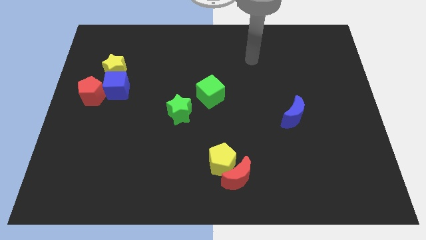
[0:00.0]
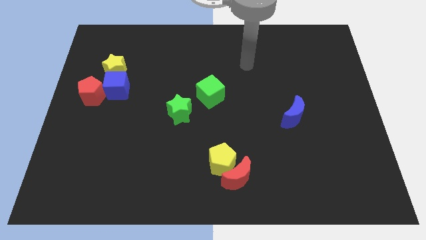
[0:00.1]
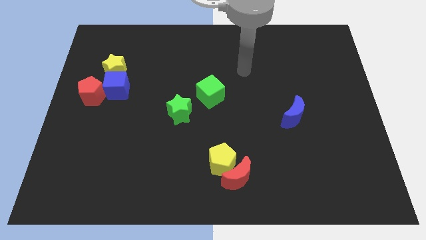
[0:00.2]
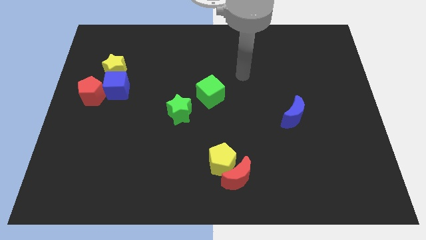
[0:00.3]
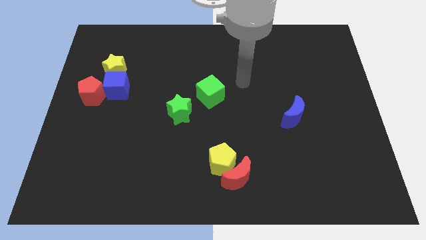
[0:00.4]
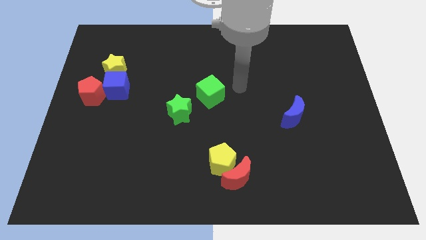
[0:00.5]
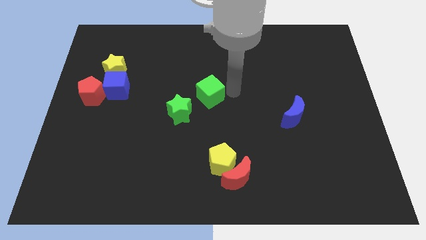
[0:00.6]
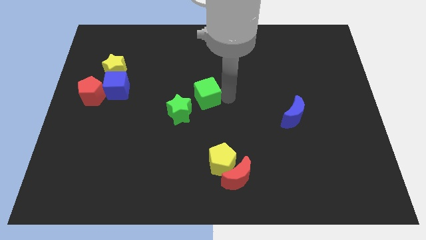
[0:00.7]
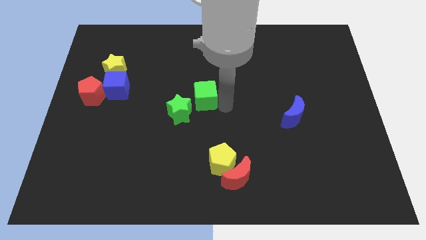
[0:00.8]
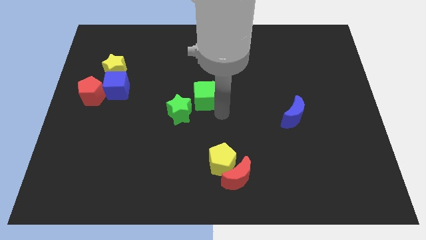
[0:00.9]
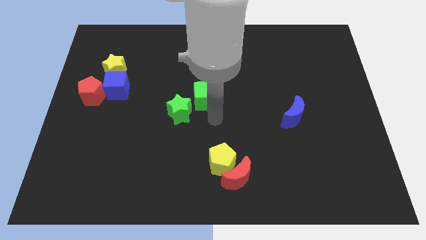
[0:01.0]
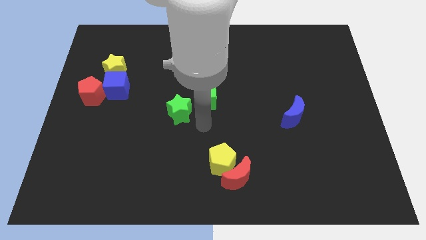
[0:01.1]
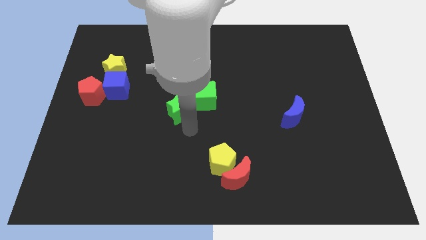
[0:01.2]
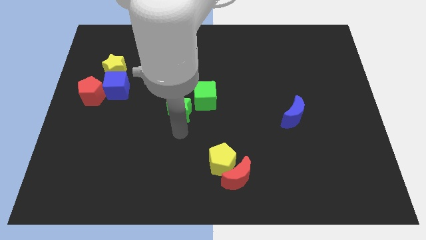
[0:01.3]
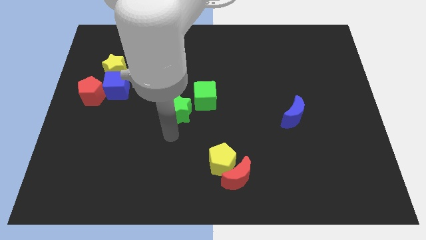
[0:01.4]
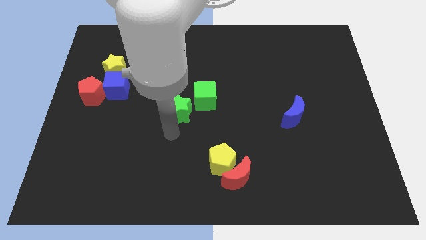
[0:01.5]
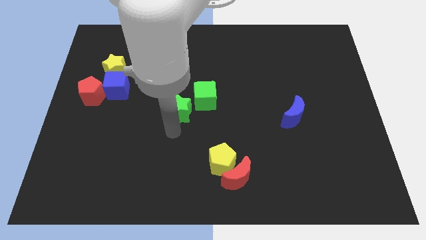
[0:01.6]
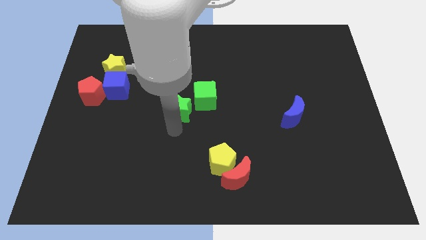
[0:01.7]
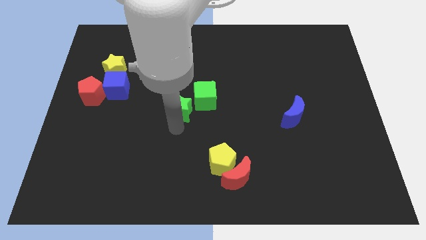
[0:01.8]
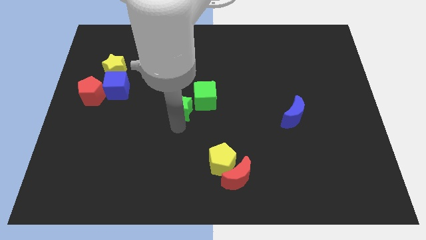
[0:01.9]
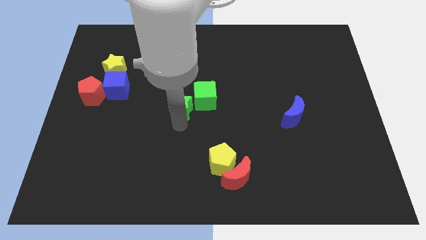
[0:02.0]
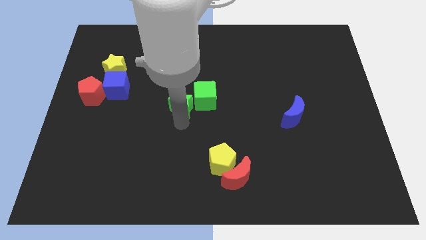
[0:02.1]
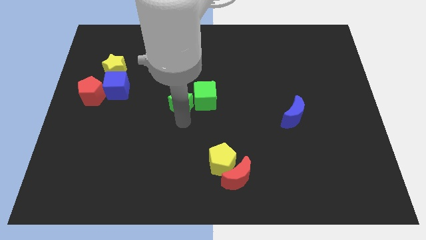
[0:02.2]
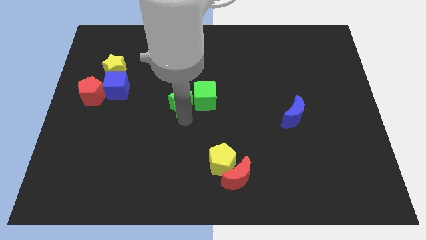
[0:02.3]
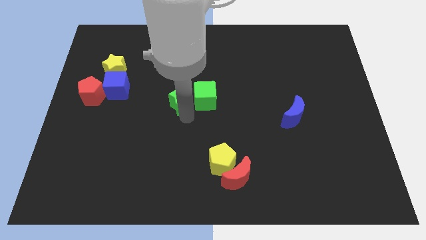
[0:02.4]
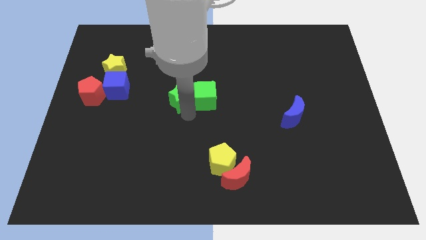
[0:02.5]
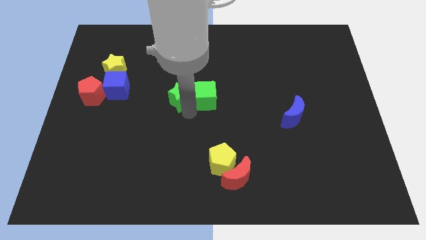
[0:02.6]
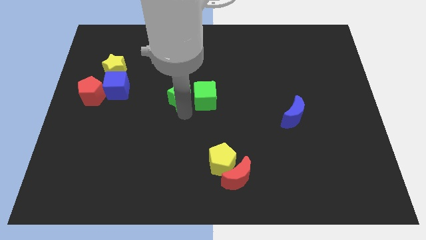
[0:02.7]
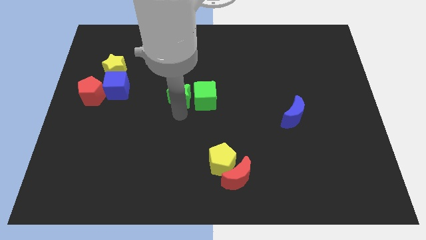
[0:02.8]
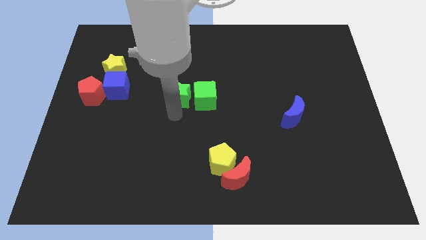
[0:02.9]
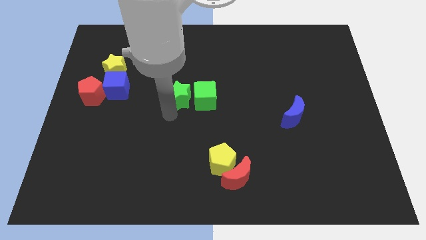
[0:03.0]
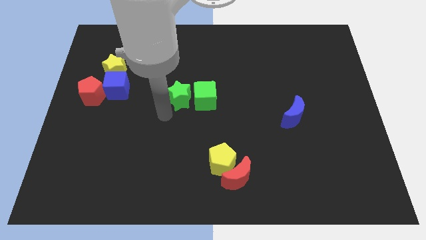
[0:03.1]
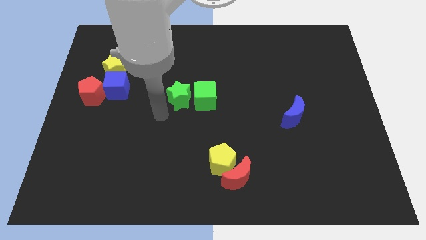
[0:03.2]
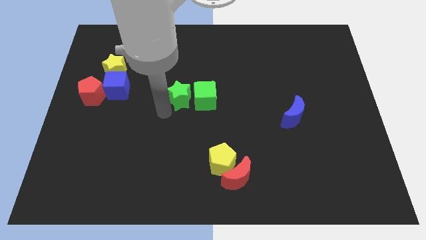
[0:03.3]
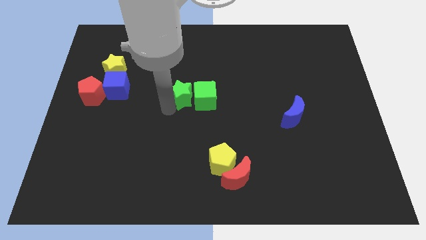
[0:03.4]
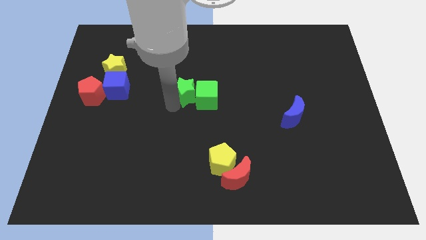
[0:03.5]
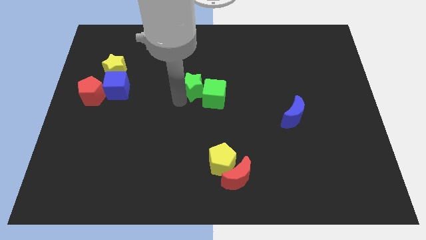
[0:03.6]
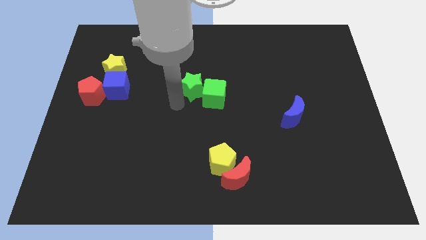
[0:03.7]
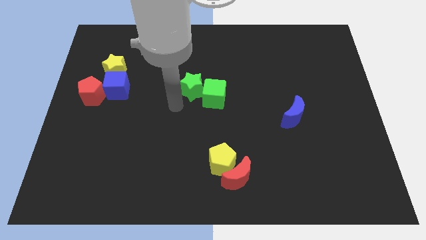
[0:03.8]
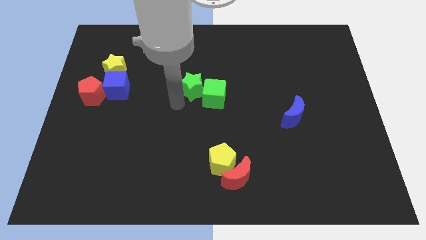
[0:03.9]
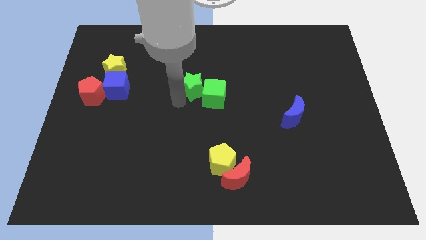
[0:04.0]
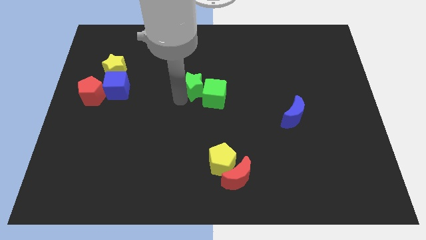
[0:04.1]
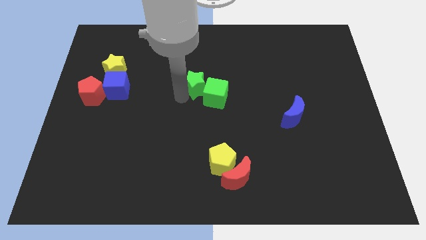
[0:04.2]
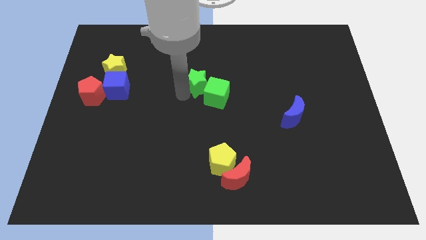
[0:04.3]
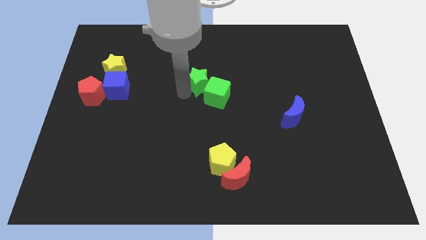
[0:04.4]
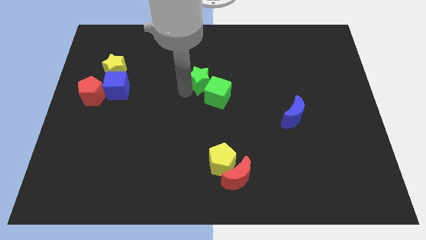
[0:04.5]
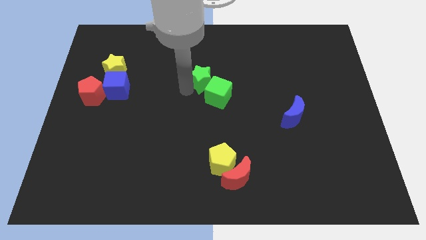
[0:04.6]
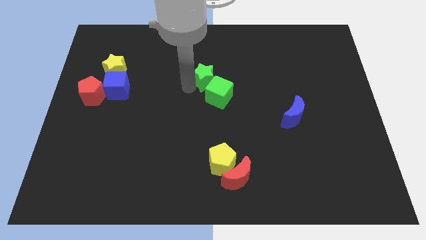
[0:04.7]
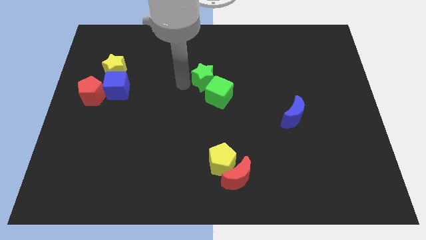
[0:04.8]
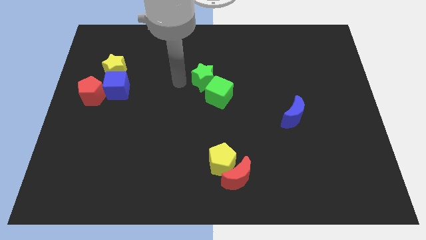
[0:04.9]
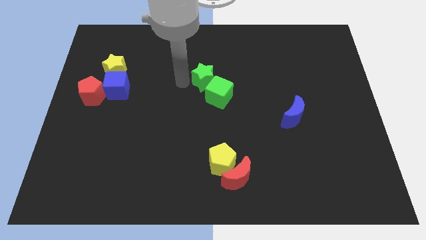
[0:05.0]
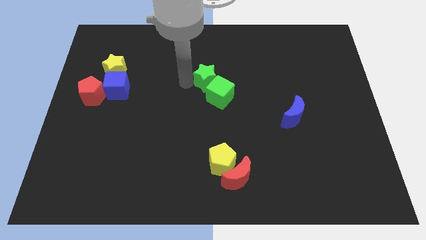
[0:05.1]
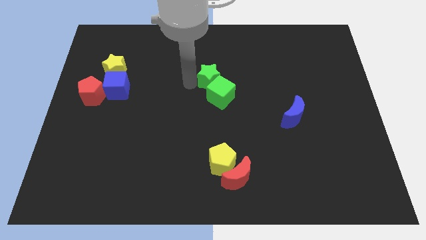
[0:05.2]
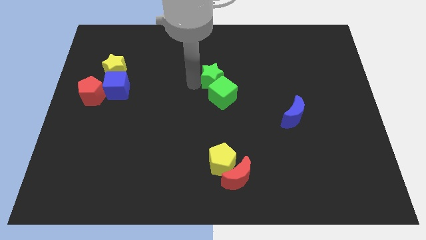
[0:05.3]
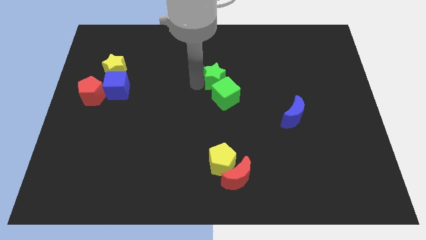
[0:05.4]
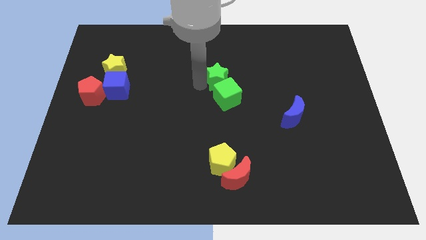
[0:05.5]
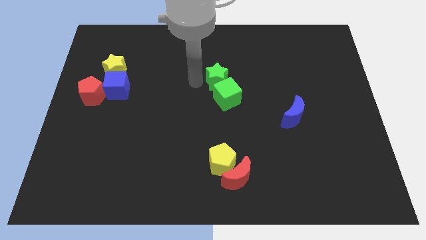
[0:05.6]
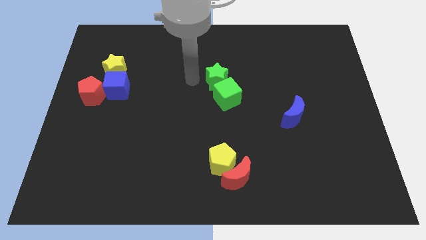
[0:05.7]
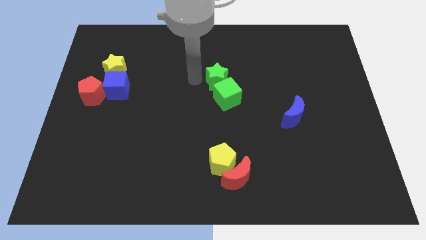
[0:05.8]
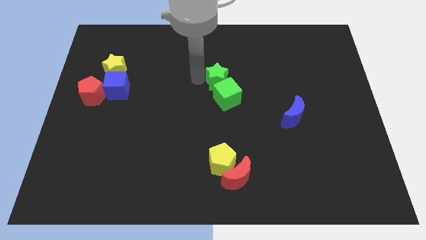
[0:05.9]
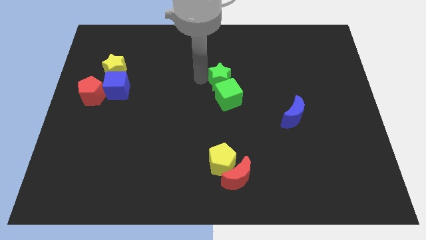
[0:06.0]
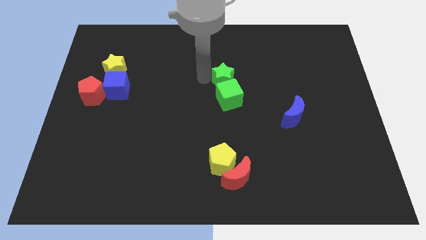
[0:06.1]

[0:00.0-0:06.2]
move the green star to the top right of the green cube
